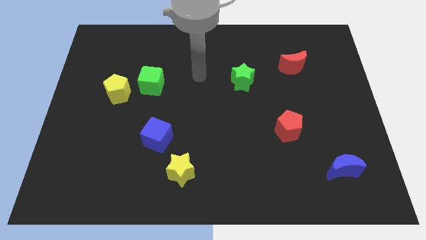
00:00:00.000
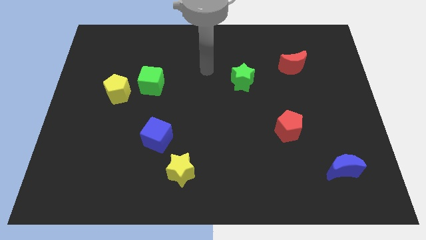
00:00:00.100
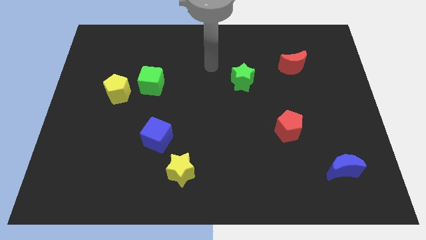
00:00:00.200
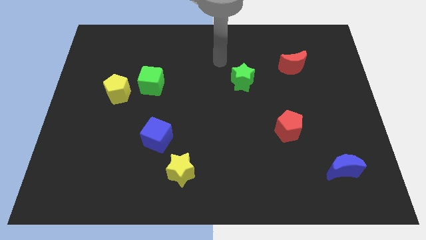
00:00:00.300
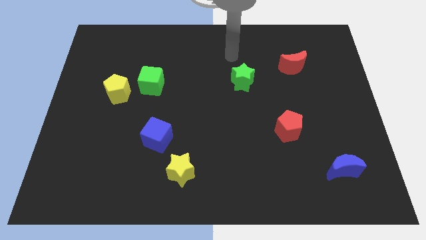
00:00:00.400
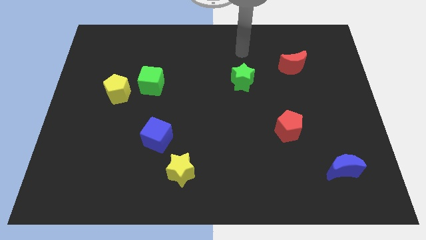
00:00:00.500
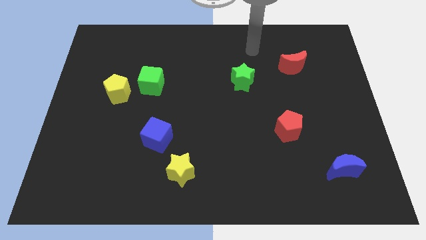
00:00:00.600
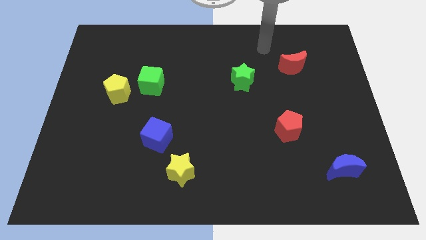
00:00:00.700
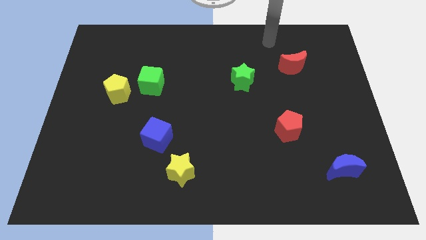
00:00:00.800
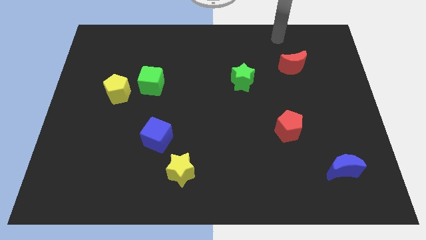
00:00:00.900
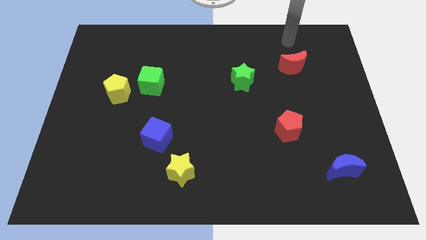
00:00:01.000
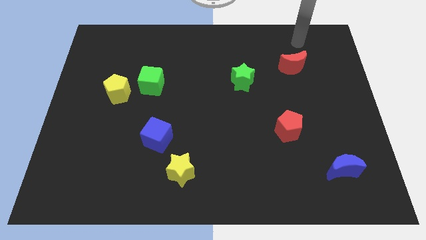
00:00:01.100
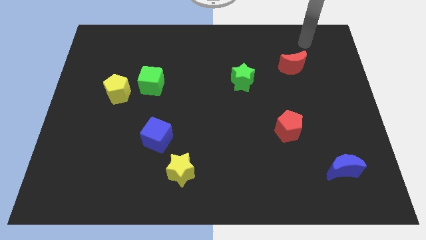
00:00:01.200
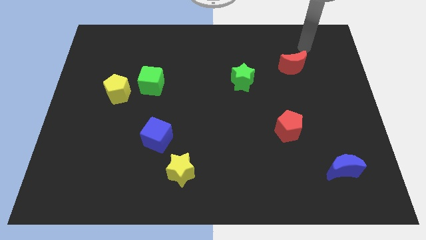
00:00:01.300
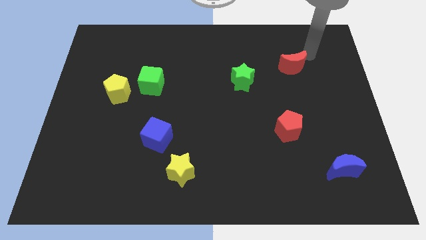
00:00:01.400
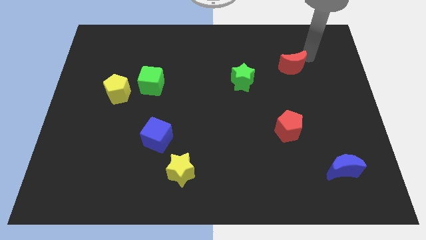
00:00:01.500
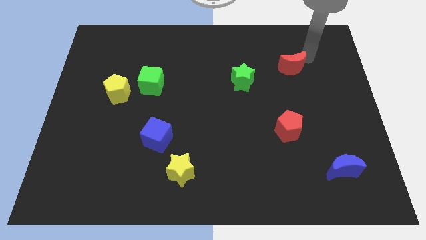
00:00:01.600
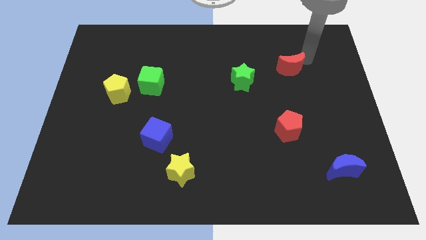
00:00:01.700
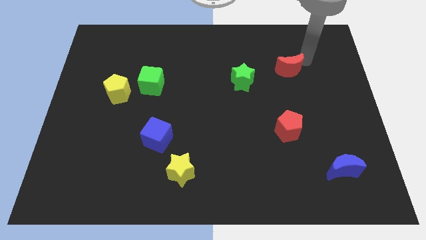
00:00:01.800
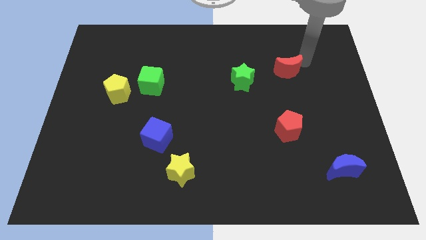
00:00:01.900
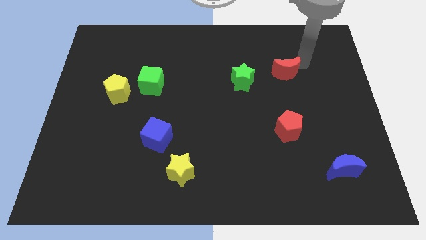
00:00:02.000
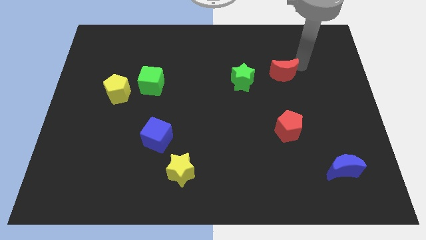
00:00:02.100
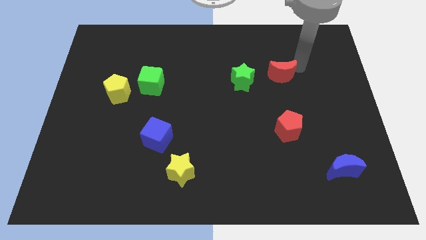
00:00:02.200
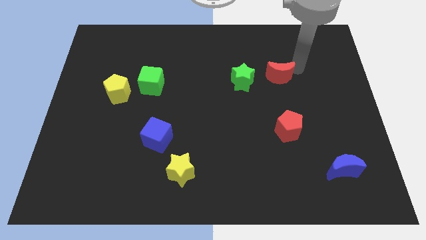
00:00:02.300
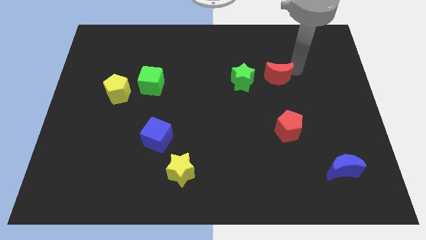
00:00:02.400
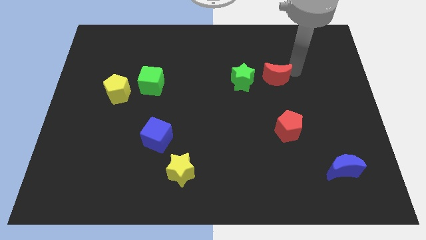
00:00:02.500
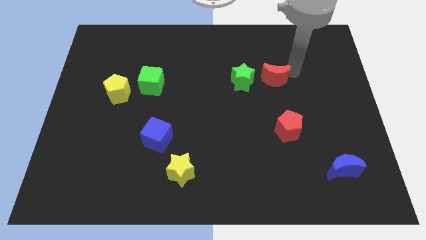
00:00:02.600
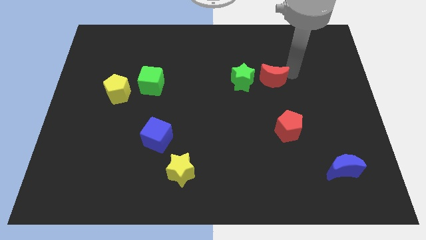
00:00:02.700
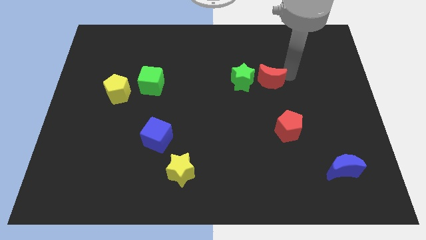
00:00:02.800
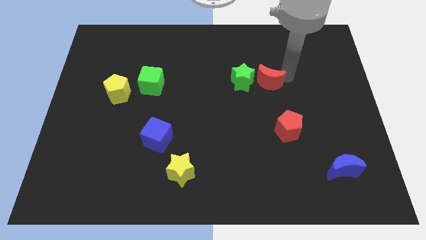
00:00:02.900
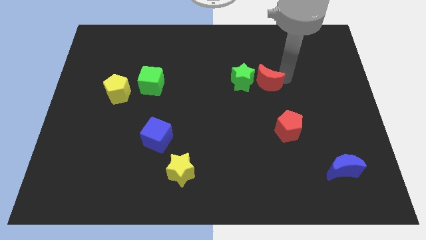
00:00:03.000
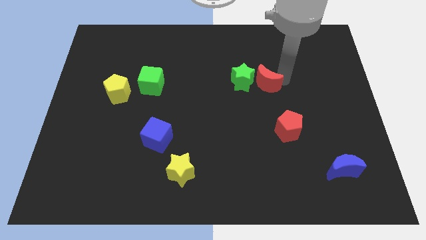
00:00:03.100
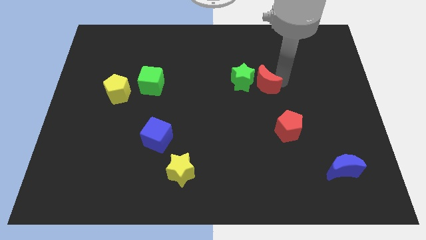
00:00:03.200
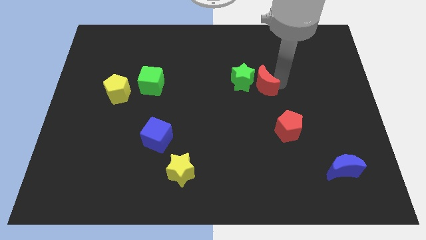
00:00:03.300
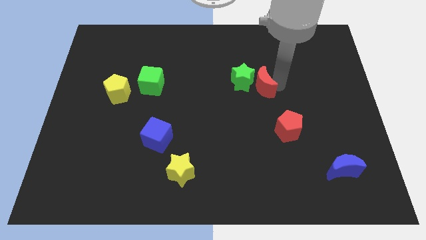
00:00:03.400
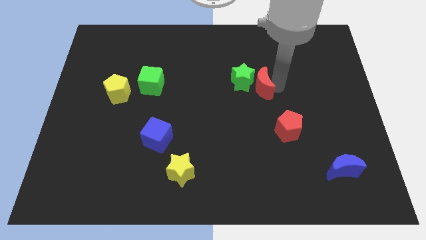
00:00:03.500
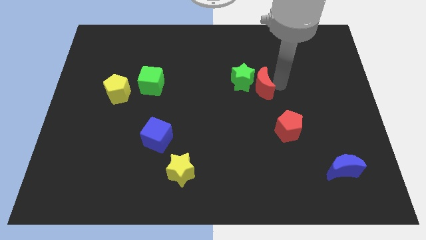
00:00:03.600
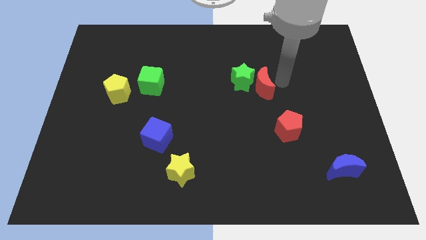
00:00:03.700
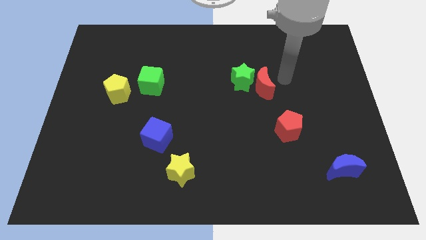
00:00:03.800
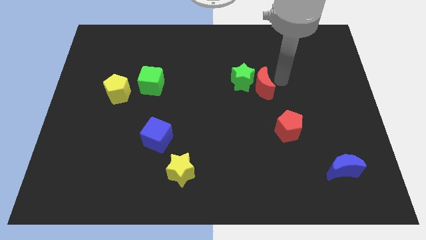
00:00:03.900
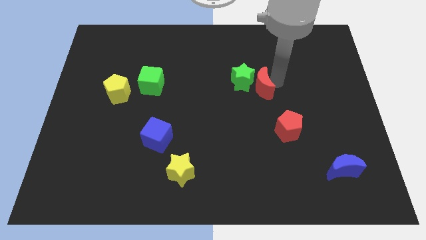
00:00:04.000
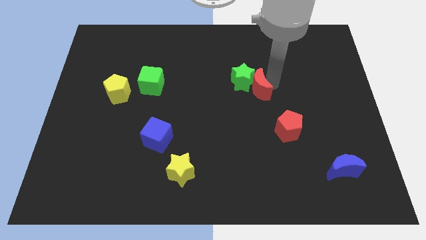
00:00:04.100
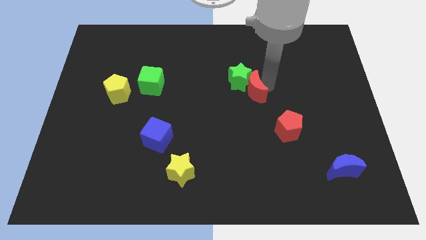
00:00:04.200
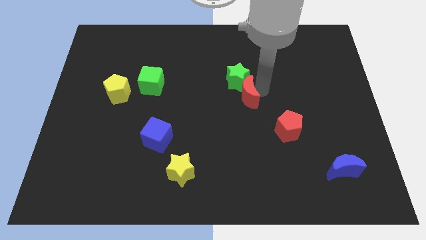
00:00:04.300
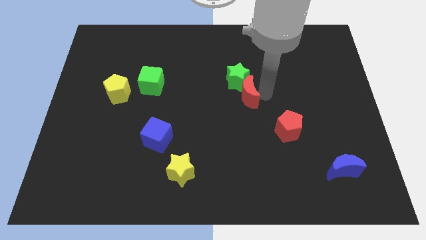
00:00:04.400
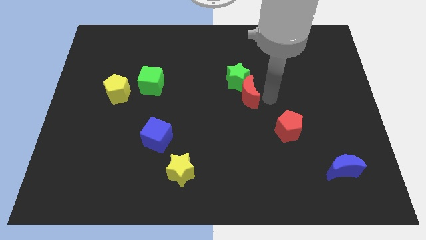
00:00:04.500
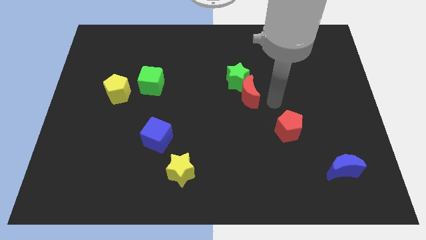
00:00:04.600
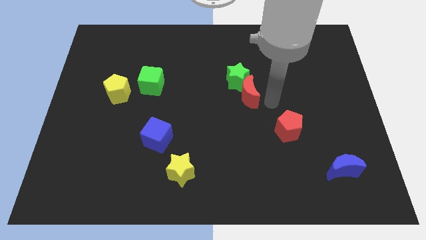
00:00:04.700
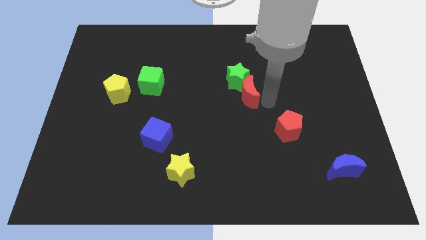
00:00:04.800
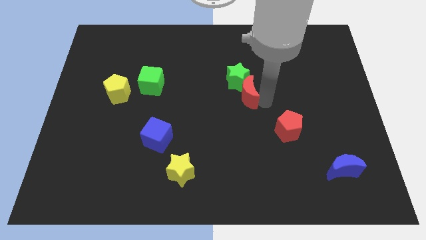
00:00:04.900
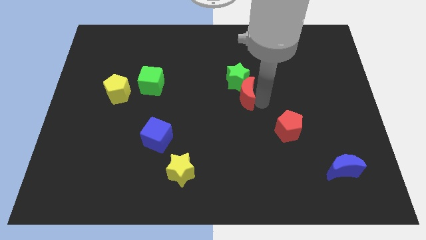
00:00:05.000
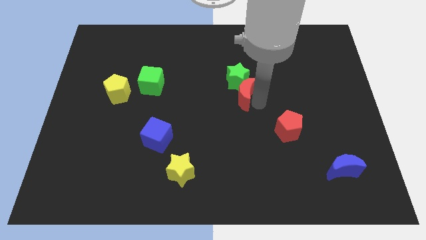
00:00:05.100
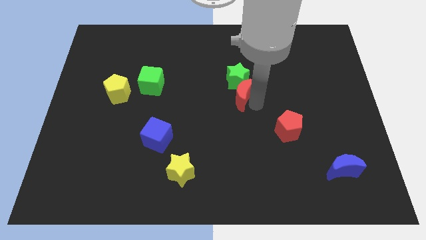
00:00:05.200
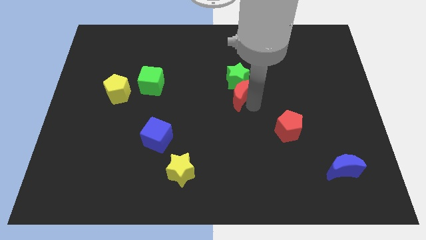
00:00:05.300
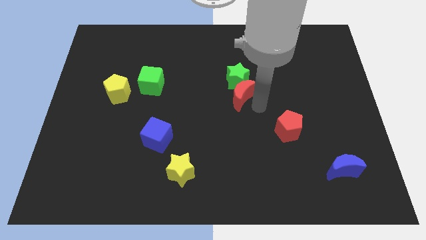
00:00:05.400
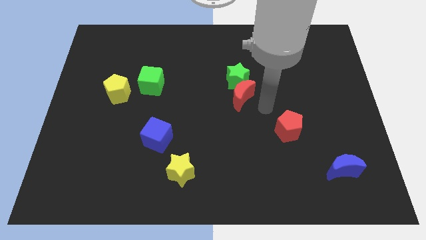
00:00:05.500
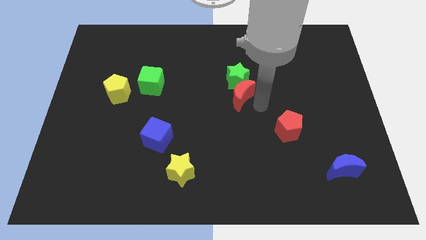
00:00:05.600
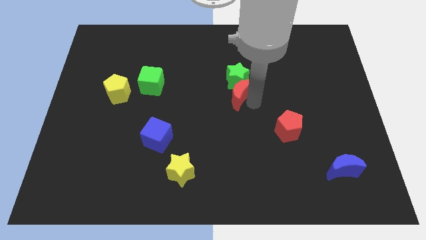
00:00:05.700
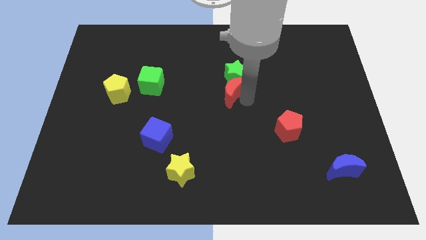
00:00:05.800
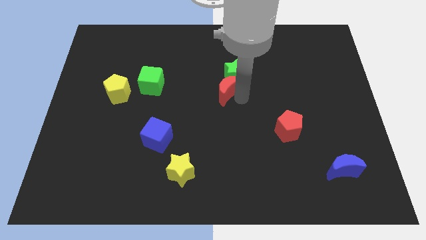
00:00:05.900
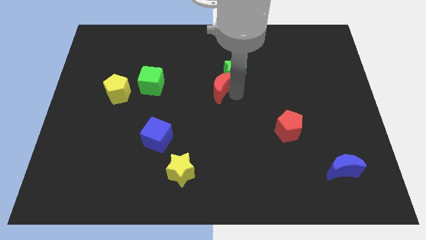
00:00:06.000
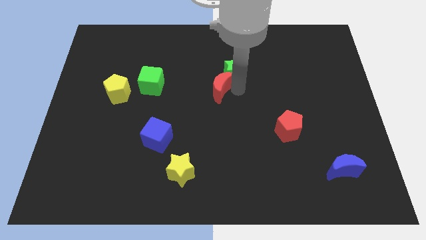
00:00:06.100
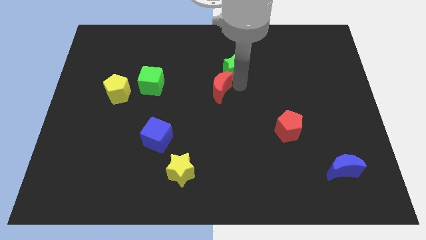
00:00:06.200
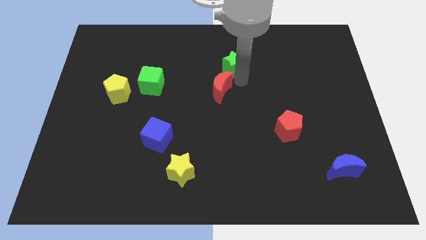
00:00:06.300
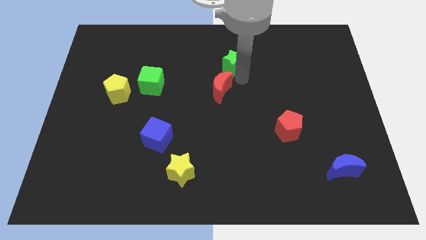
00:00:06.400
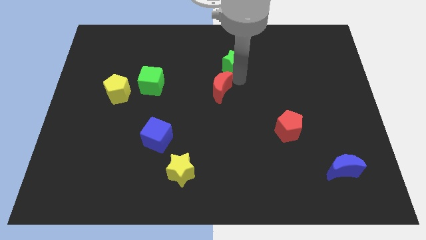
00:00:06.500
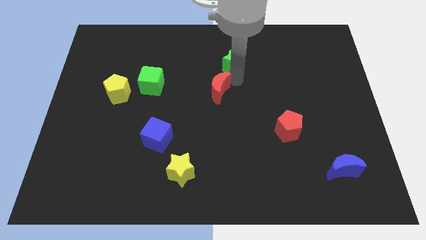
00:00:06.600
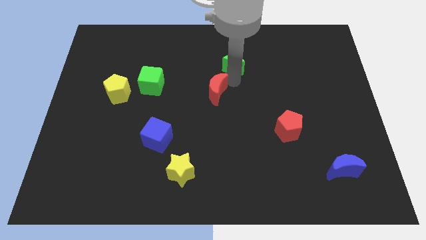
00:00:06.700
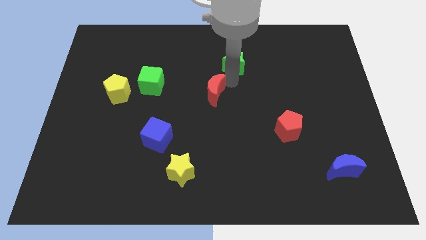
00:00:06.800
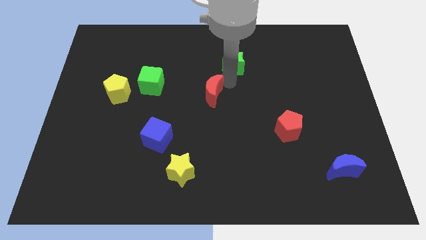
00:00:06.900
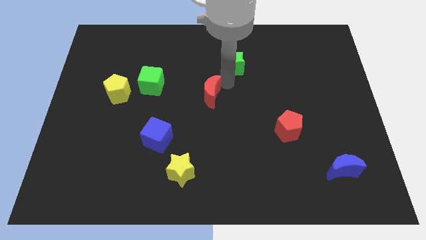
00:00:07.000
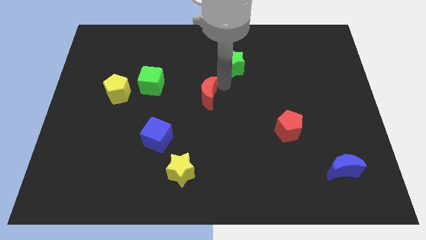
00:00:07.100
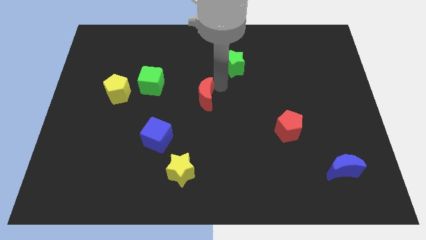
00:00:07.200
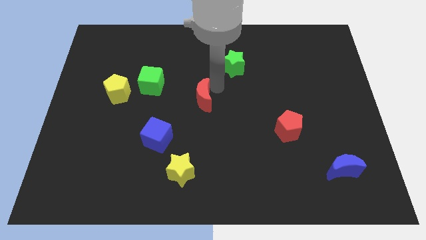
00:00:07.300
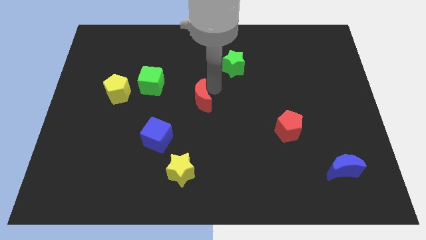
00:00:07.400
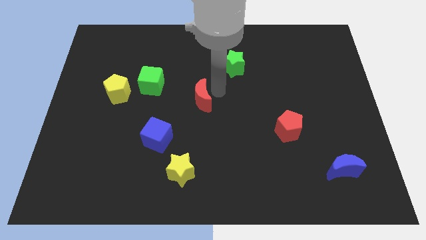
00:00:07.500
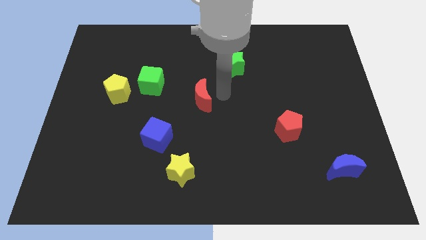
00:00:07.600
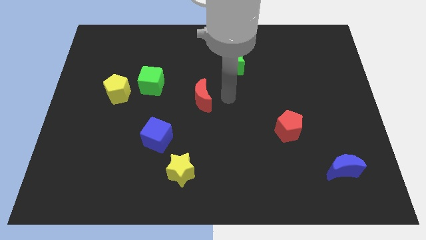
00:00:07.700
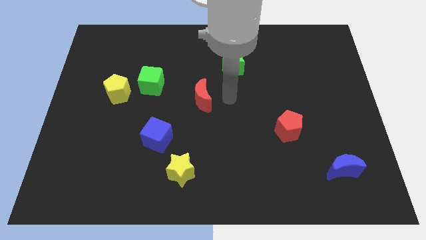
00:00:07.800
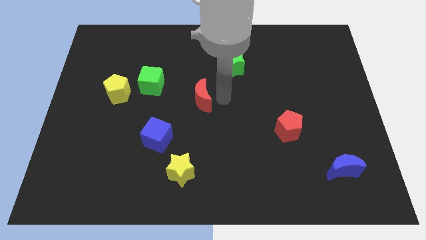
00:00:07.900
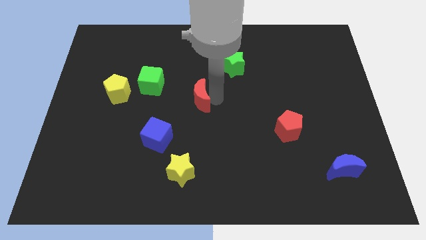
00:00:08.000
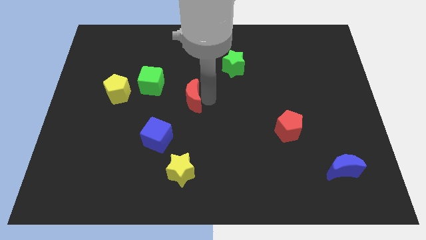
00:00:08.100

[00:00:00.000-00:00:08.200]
put the red moon to the bottom right of the green cube
